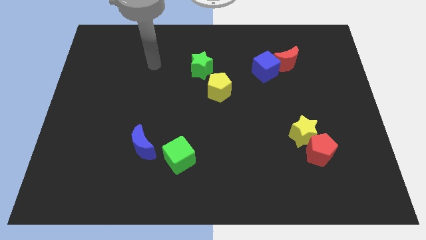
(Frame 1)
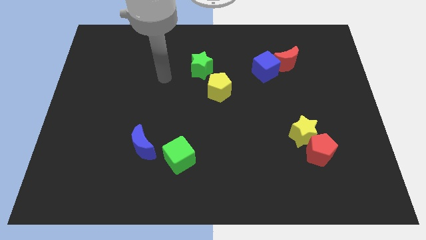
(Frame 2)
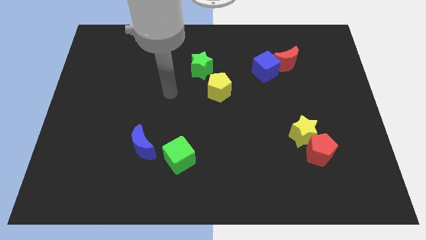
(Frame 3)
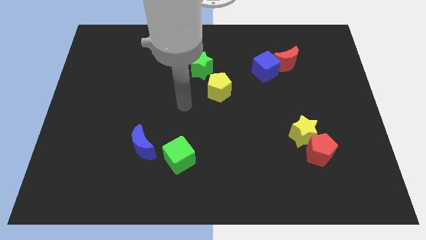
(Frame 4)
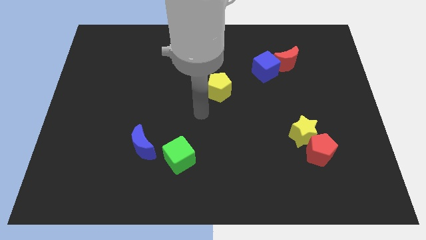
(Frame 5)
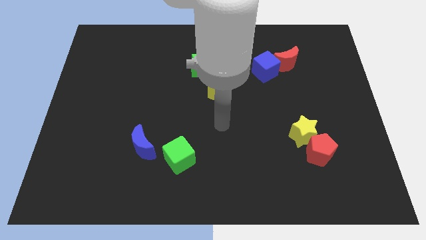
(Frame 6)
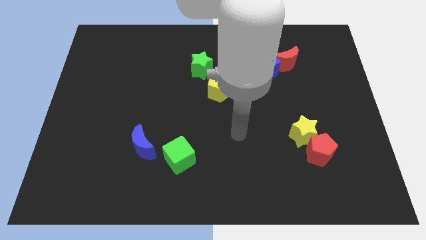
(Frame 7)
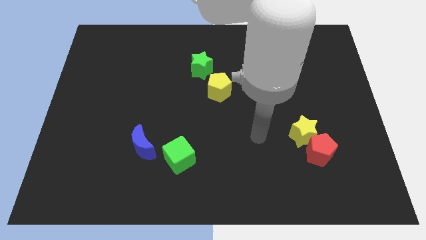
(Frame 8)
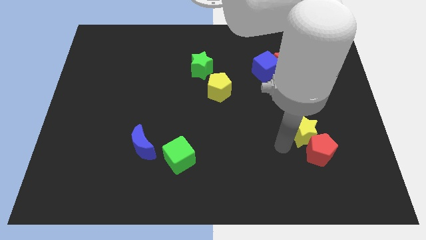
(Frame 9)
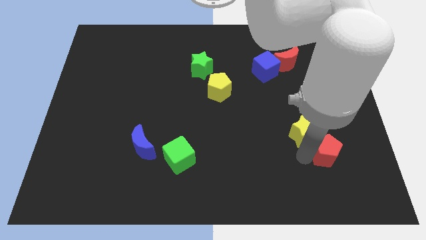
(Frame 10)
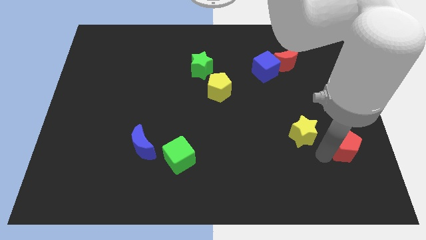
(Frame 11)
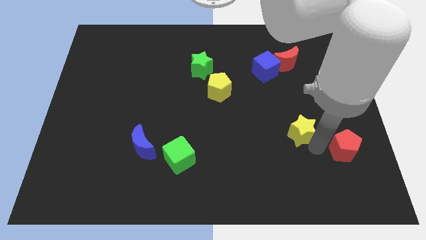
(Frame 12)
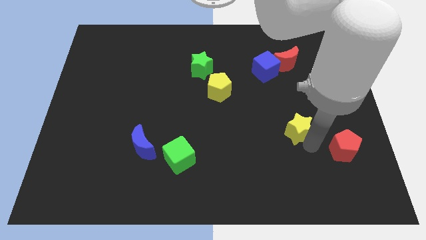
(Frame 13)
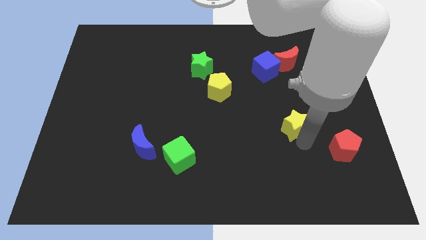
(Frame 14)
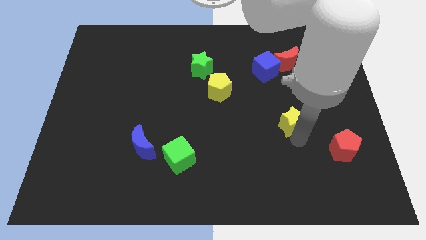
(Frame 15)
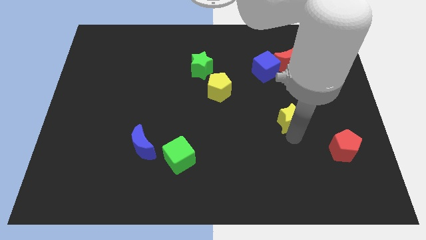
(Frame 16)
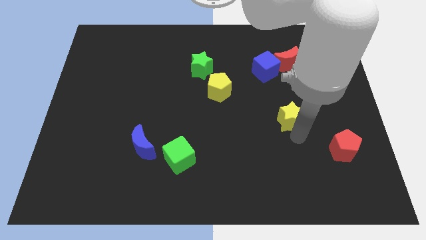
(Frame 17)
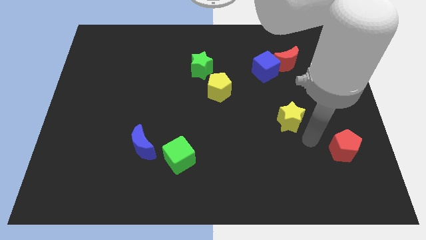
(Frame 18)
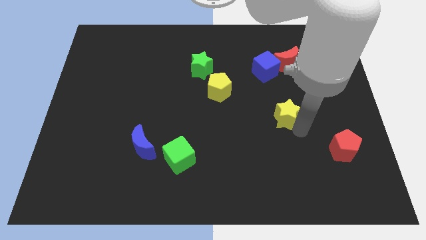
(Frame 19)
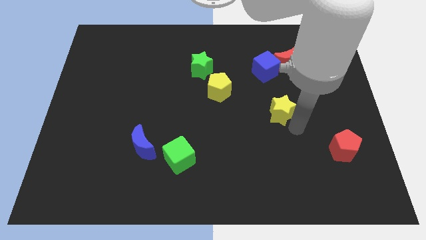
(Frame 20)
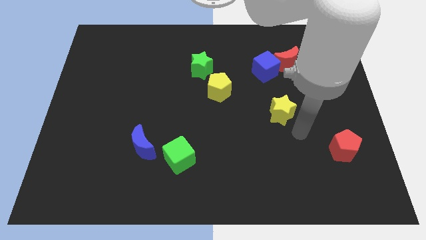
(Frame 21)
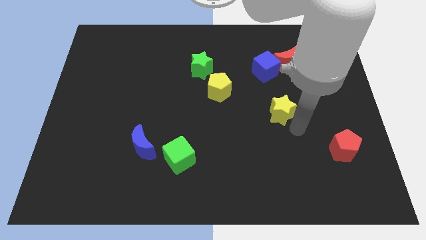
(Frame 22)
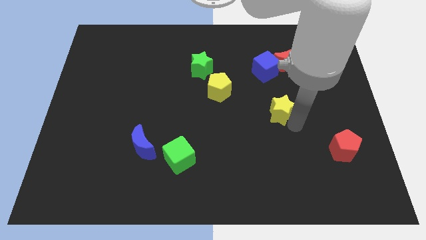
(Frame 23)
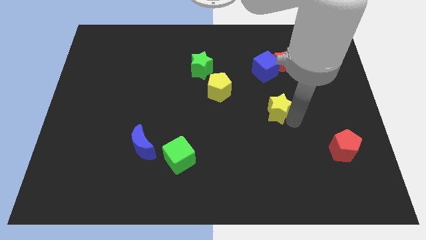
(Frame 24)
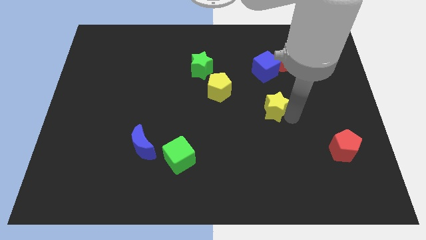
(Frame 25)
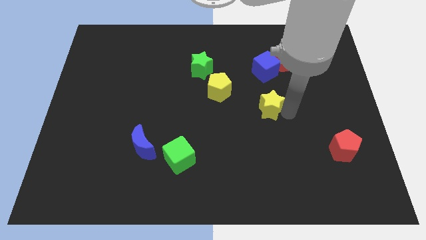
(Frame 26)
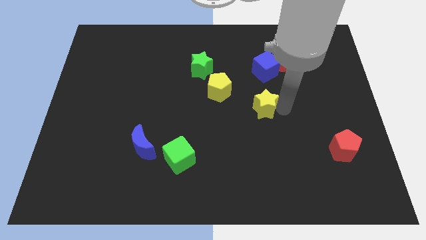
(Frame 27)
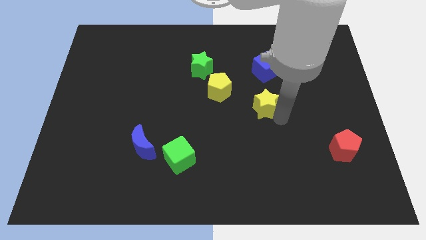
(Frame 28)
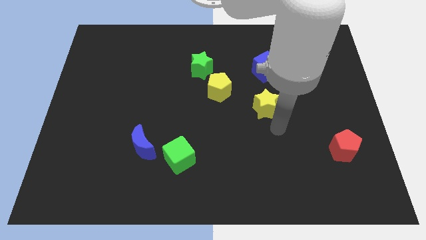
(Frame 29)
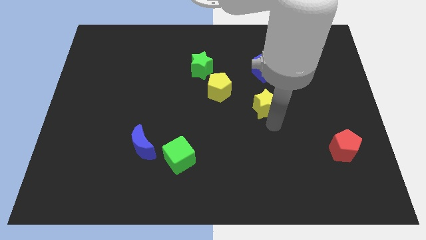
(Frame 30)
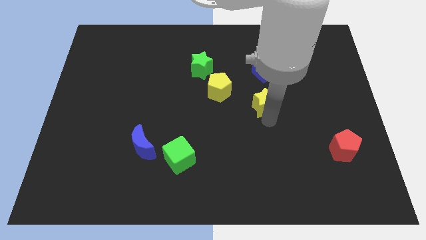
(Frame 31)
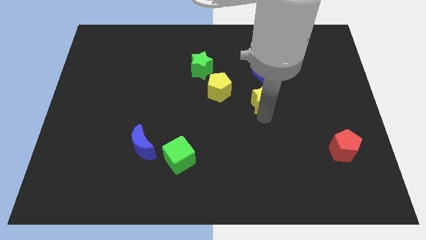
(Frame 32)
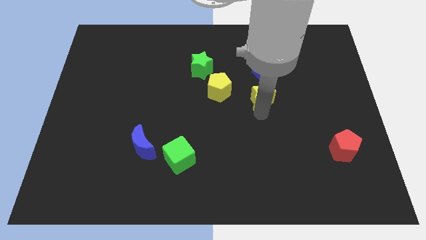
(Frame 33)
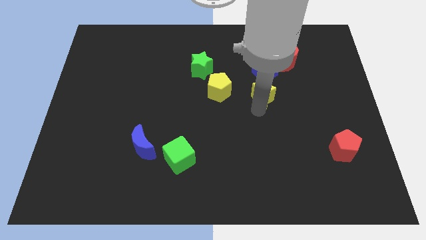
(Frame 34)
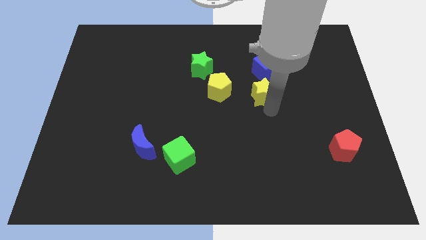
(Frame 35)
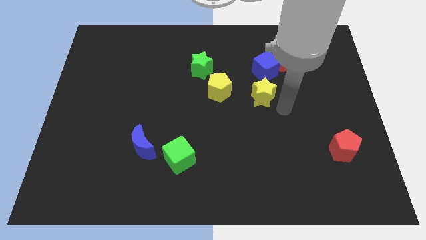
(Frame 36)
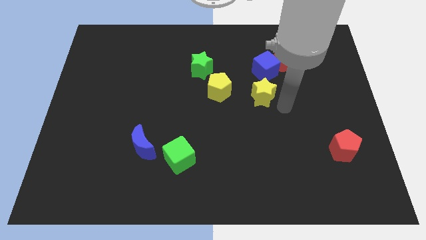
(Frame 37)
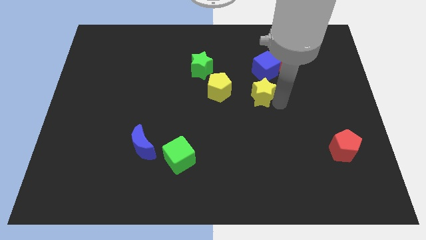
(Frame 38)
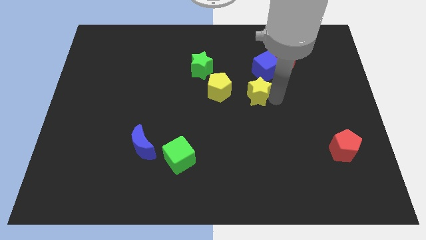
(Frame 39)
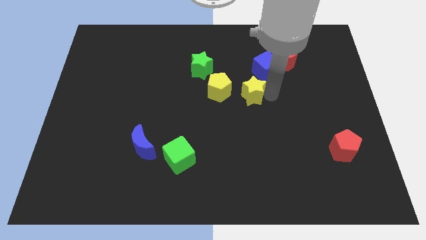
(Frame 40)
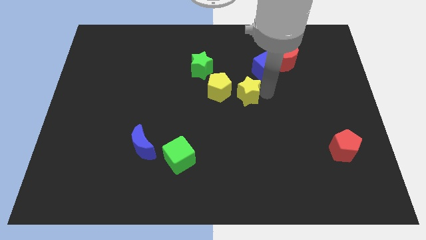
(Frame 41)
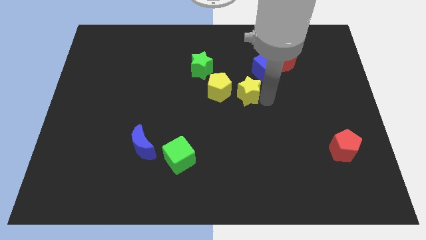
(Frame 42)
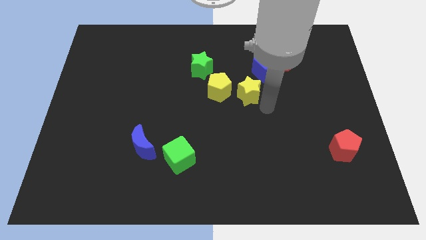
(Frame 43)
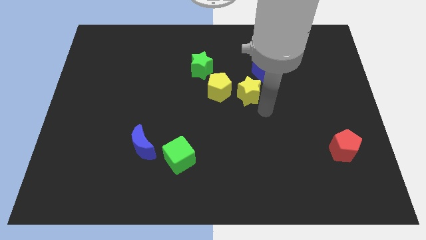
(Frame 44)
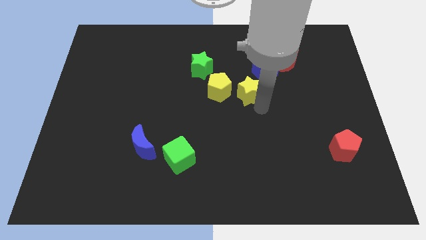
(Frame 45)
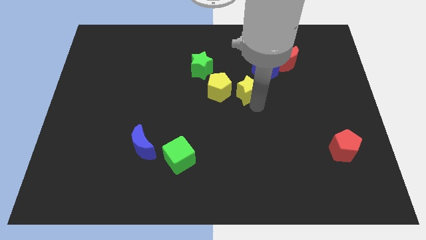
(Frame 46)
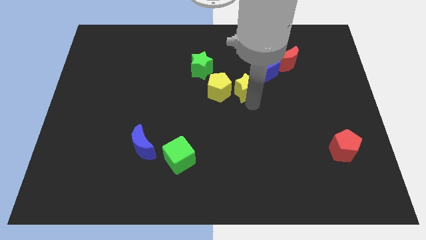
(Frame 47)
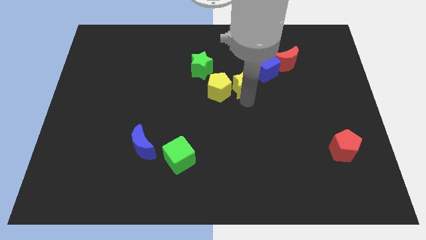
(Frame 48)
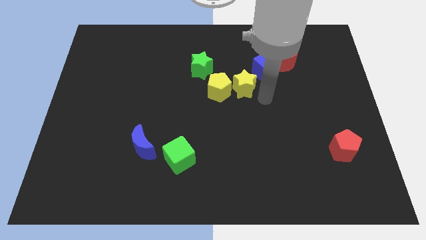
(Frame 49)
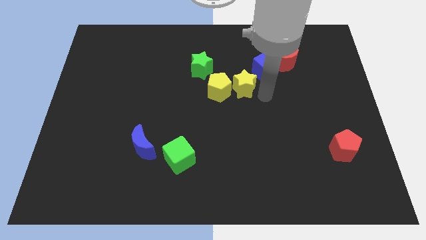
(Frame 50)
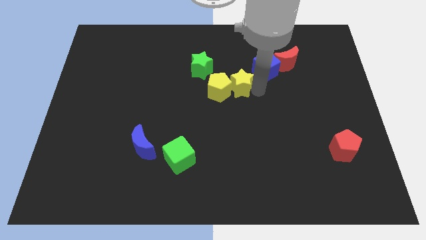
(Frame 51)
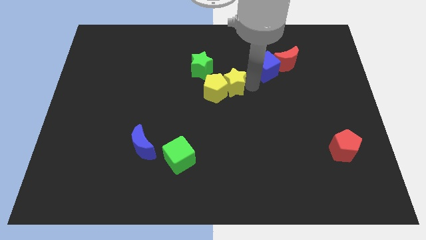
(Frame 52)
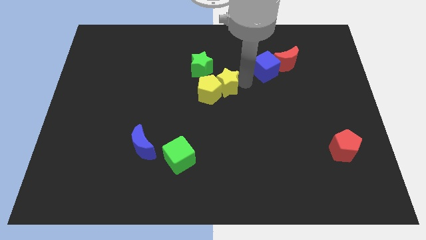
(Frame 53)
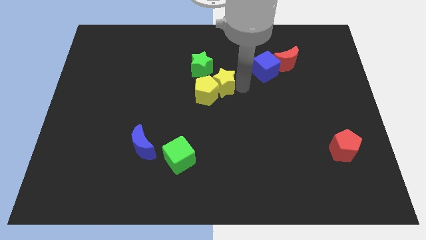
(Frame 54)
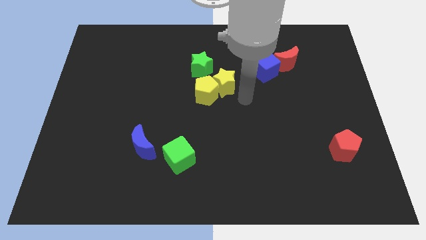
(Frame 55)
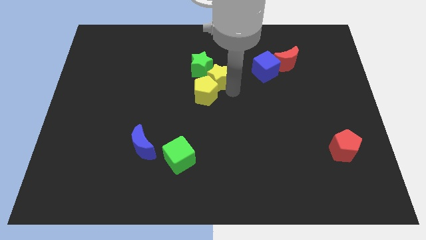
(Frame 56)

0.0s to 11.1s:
move the yellow star to the green star

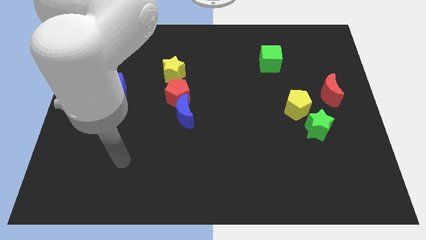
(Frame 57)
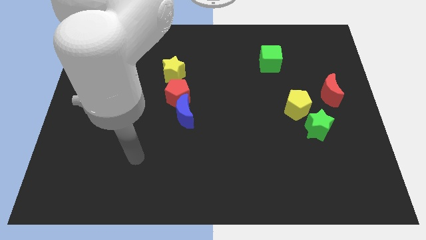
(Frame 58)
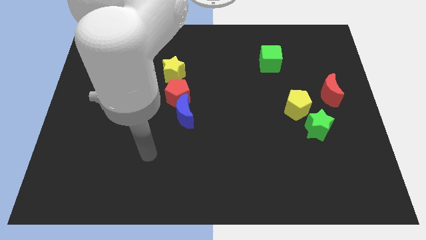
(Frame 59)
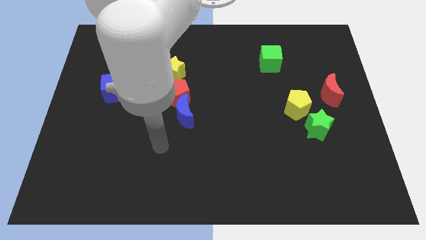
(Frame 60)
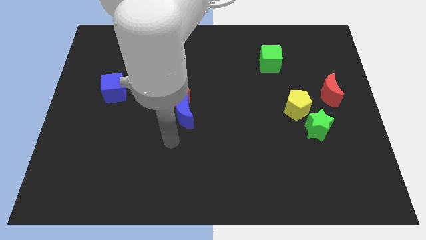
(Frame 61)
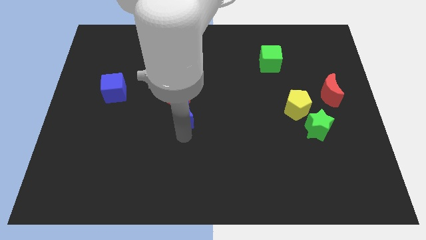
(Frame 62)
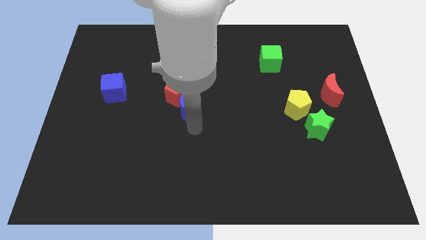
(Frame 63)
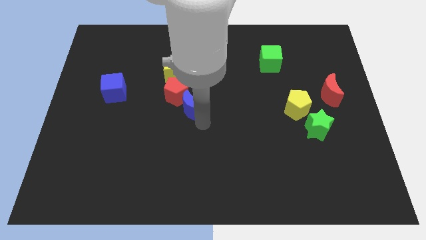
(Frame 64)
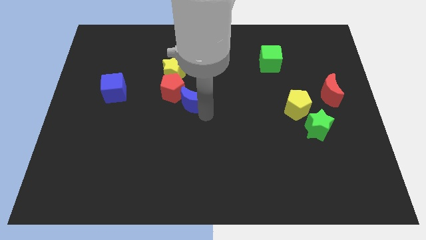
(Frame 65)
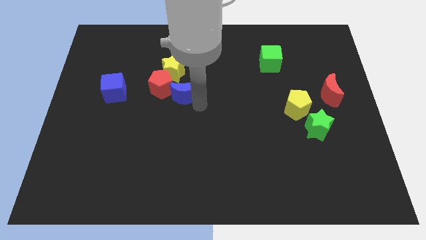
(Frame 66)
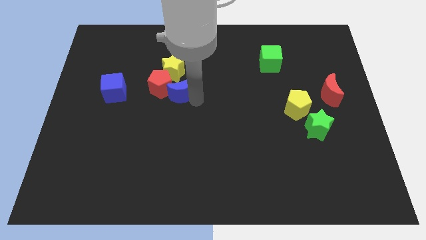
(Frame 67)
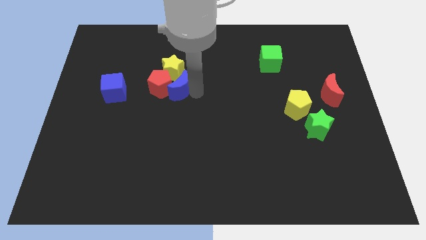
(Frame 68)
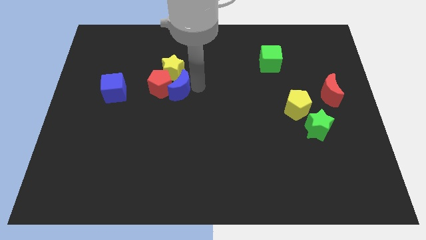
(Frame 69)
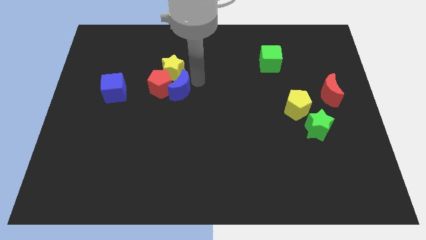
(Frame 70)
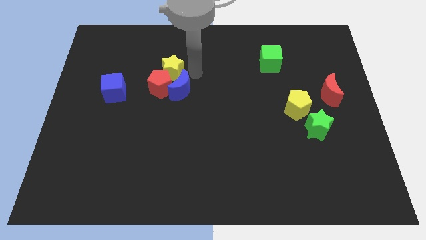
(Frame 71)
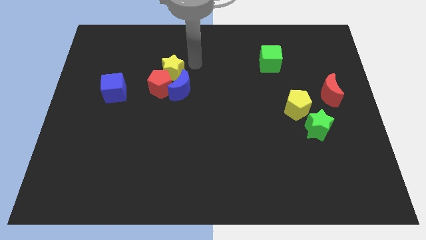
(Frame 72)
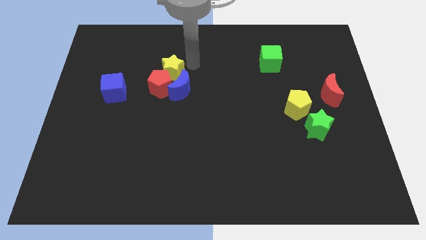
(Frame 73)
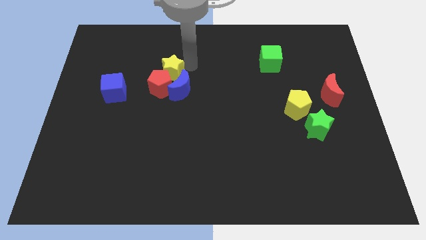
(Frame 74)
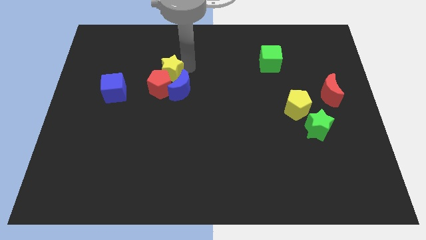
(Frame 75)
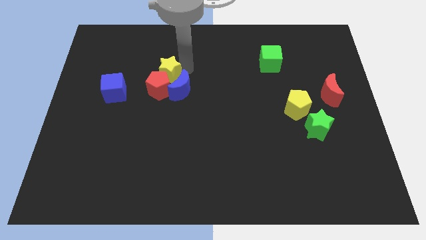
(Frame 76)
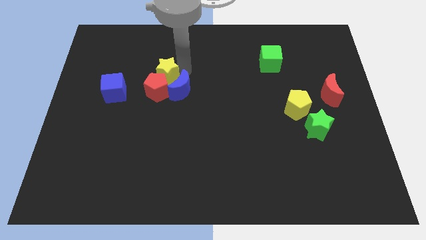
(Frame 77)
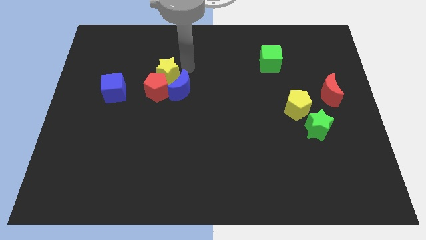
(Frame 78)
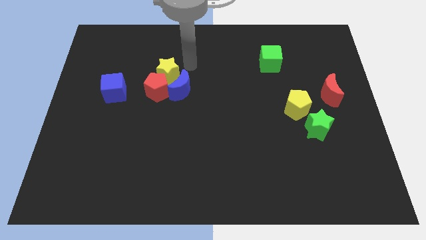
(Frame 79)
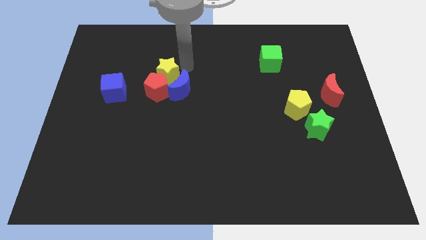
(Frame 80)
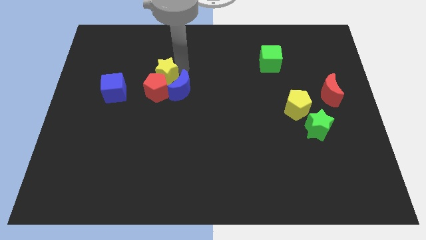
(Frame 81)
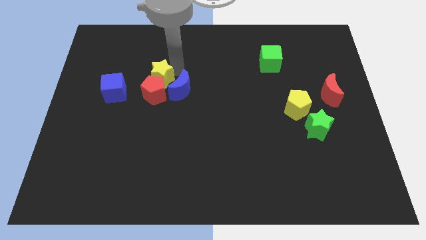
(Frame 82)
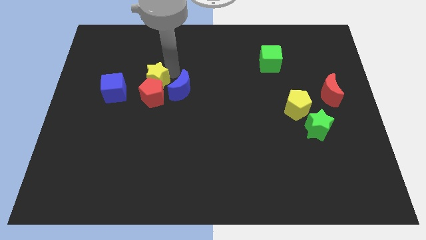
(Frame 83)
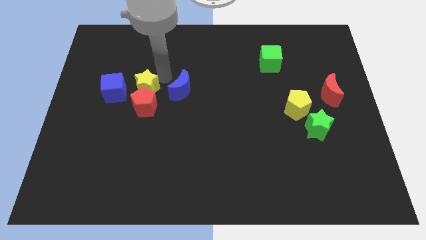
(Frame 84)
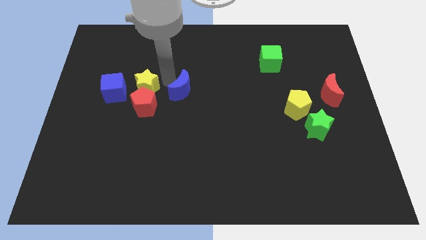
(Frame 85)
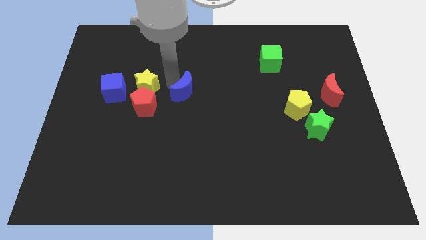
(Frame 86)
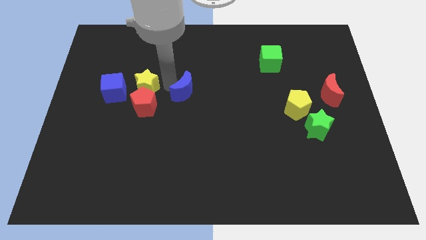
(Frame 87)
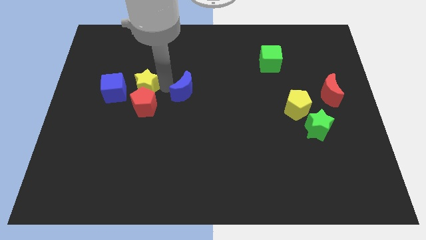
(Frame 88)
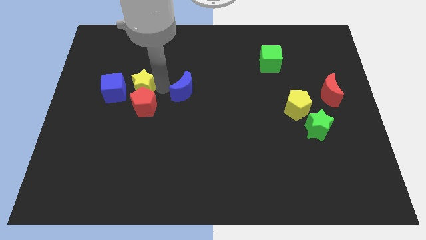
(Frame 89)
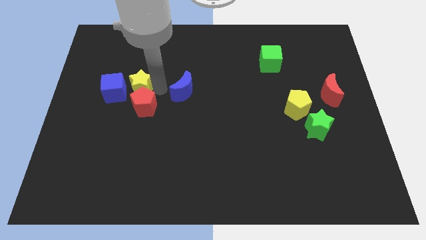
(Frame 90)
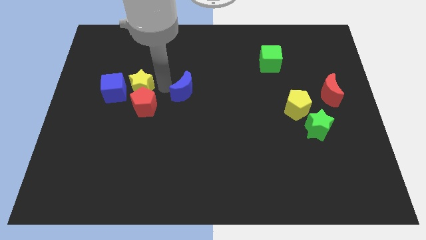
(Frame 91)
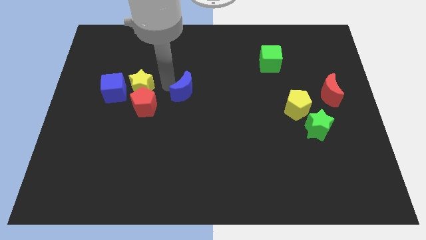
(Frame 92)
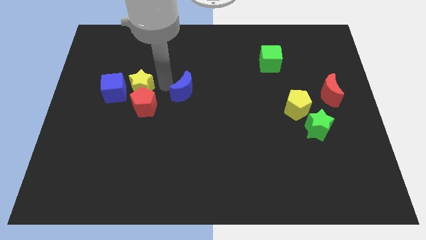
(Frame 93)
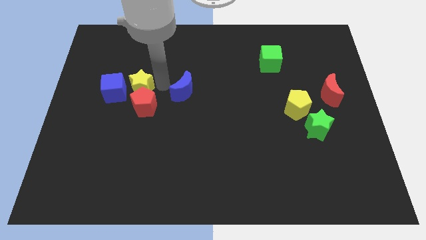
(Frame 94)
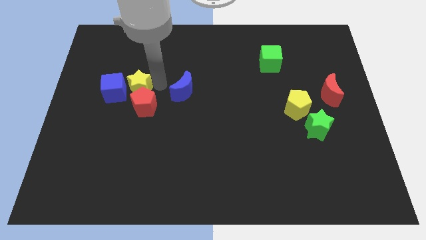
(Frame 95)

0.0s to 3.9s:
slide the yellow star next to the blue cube
